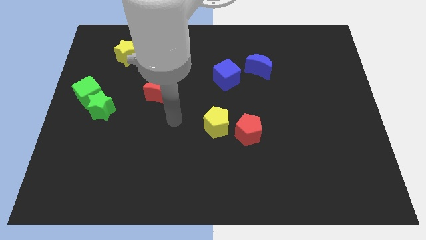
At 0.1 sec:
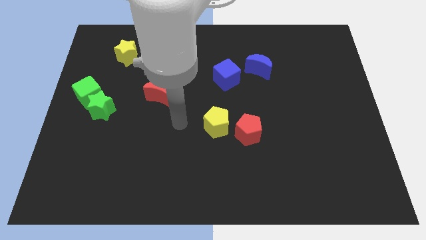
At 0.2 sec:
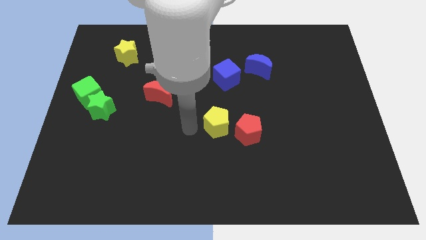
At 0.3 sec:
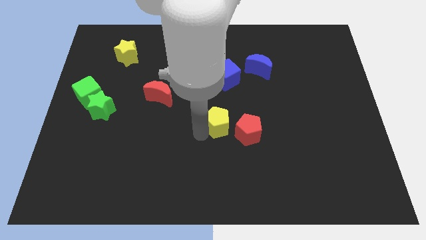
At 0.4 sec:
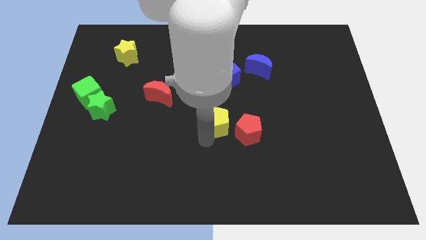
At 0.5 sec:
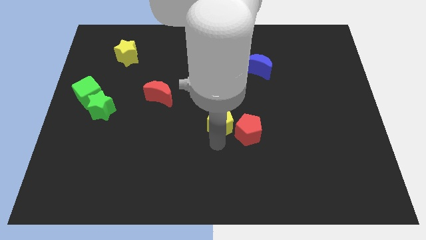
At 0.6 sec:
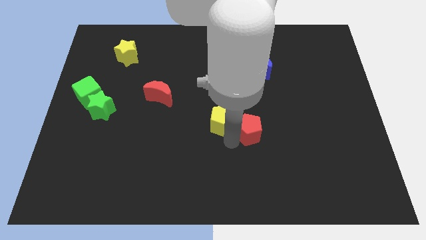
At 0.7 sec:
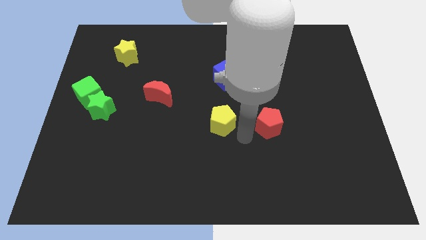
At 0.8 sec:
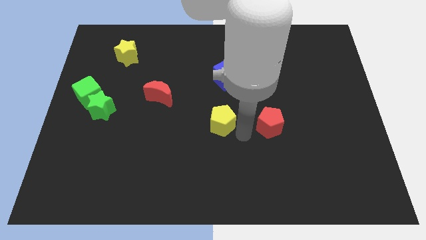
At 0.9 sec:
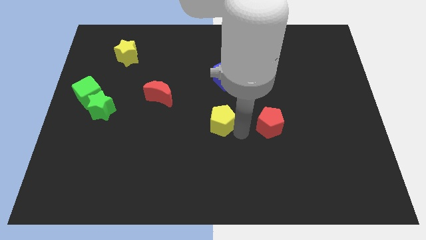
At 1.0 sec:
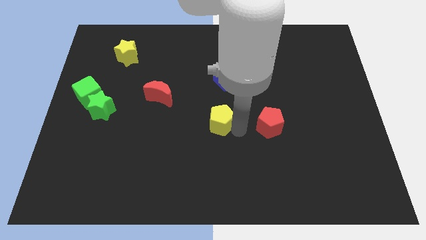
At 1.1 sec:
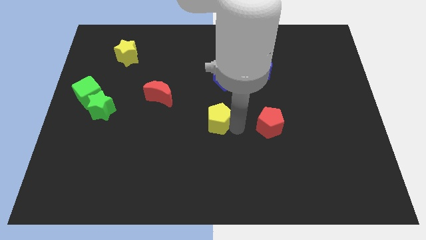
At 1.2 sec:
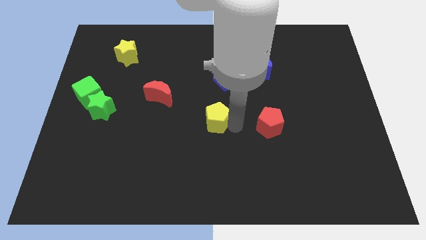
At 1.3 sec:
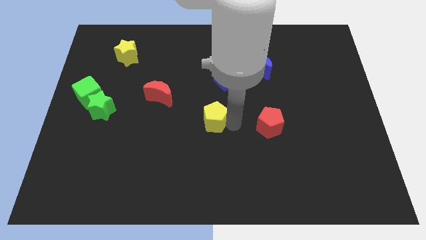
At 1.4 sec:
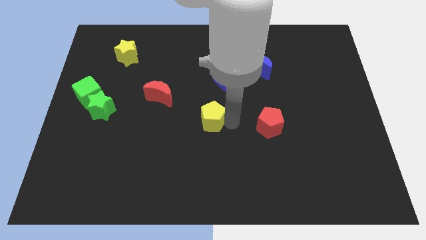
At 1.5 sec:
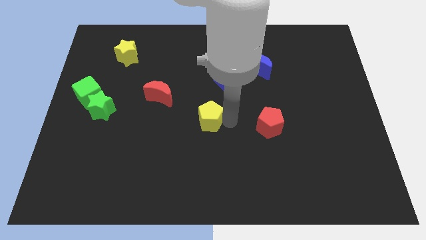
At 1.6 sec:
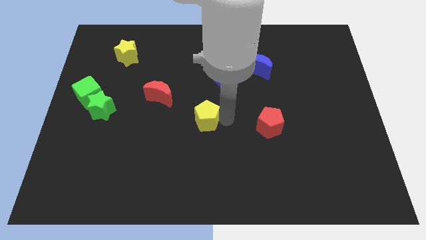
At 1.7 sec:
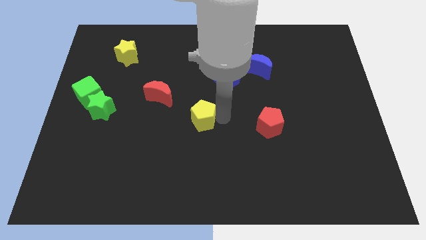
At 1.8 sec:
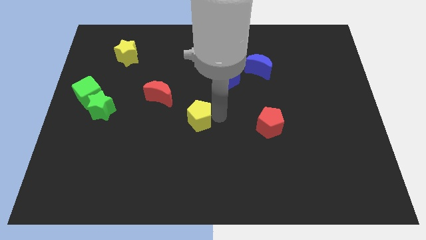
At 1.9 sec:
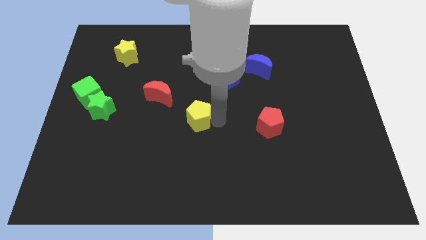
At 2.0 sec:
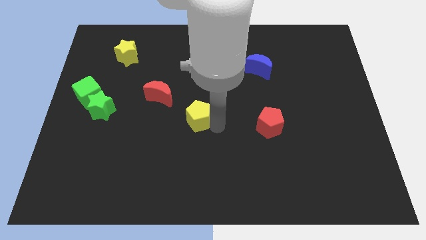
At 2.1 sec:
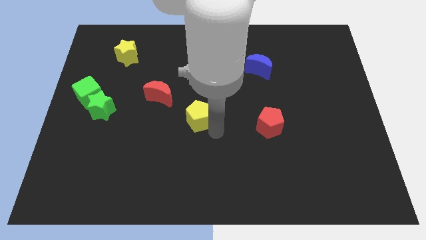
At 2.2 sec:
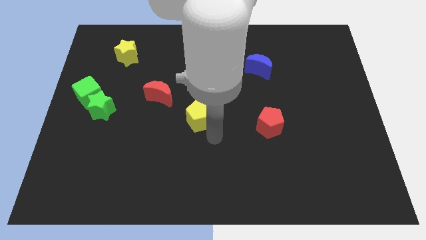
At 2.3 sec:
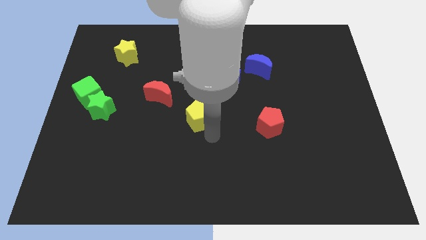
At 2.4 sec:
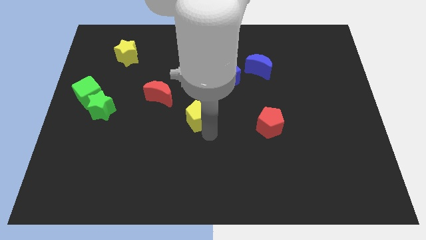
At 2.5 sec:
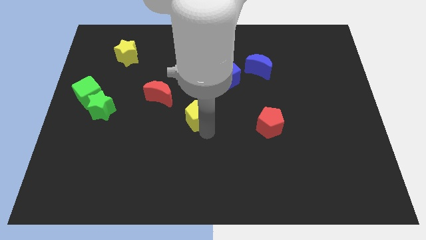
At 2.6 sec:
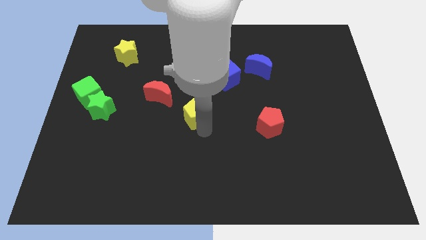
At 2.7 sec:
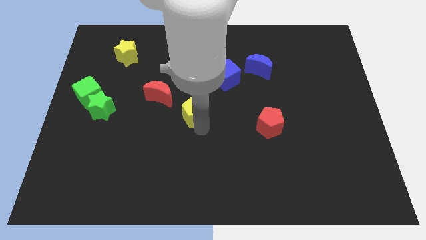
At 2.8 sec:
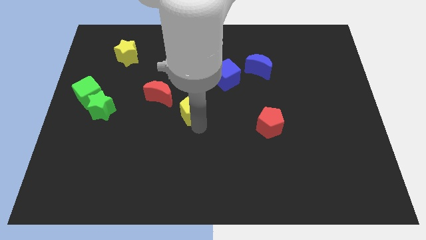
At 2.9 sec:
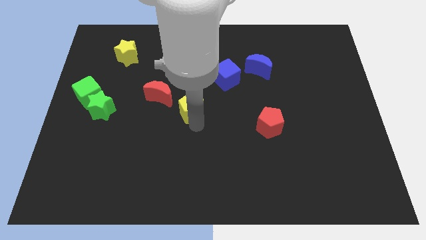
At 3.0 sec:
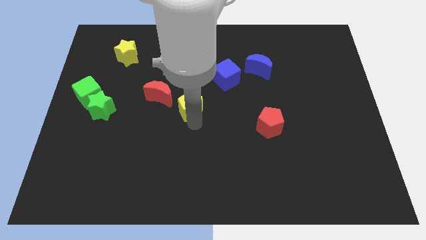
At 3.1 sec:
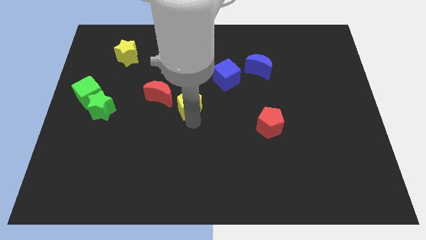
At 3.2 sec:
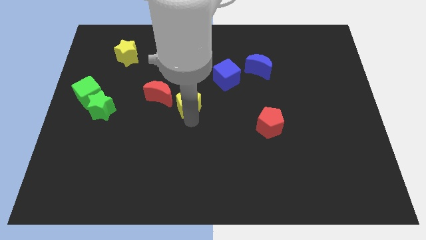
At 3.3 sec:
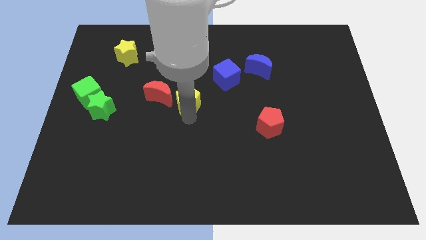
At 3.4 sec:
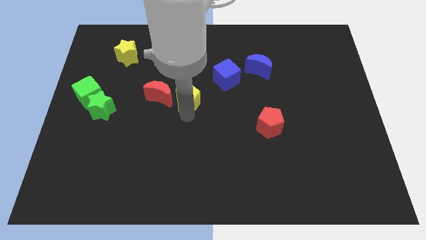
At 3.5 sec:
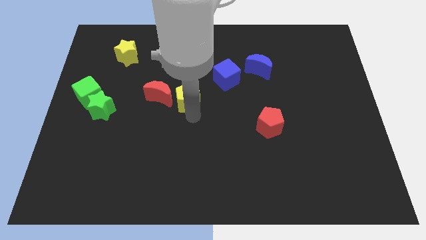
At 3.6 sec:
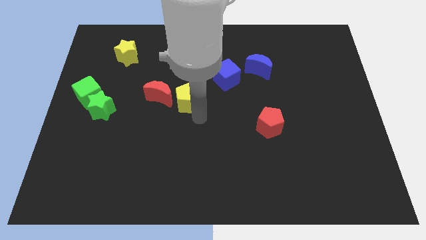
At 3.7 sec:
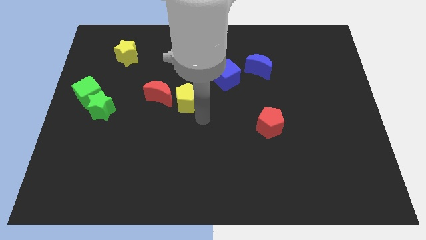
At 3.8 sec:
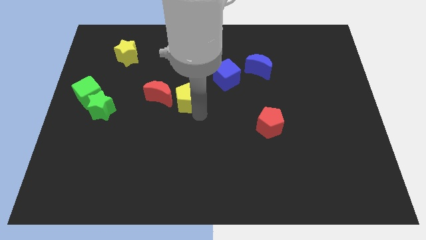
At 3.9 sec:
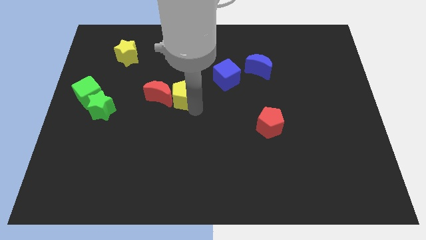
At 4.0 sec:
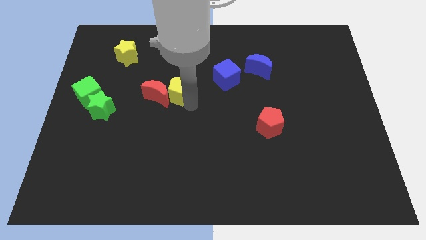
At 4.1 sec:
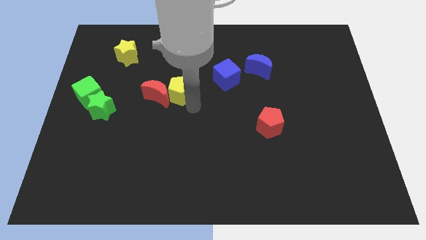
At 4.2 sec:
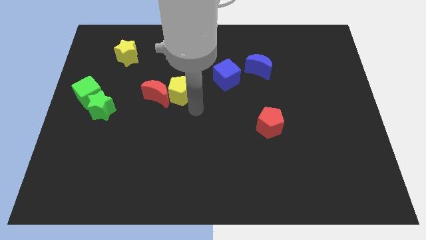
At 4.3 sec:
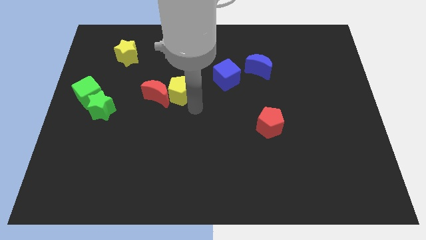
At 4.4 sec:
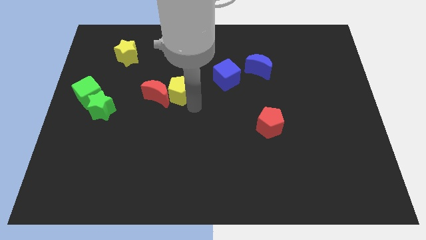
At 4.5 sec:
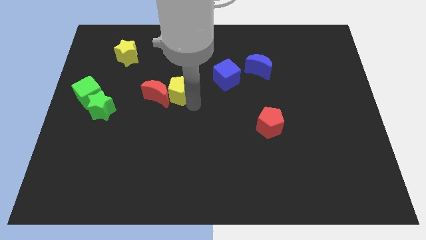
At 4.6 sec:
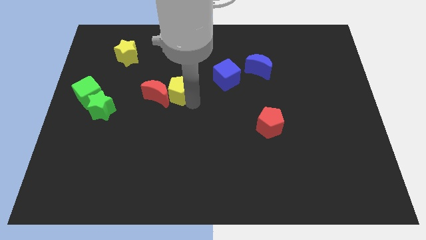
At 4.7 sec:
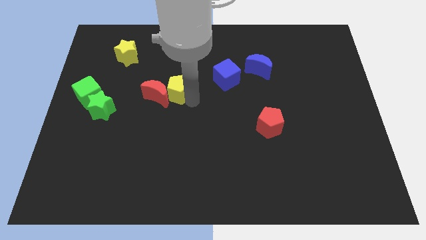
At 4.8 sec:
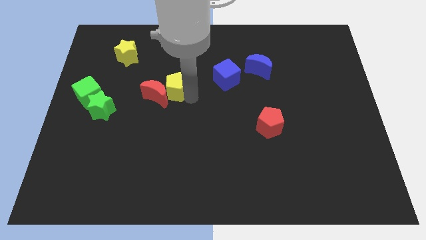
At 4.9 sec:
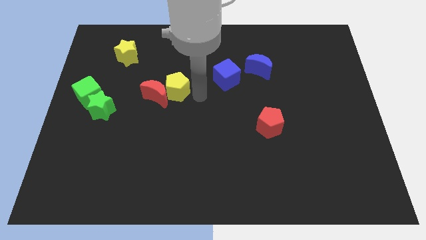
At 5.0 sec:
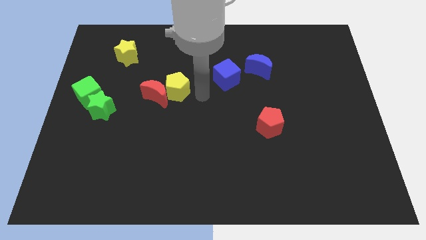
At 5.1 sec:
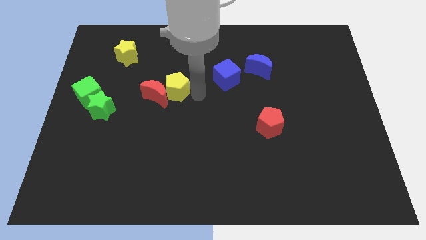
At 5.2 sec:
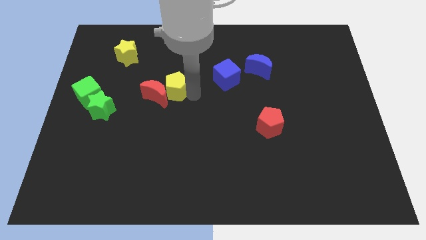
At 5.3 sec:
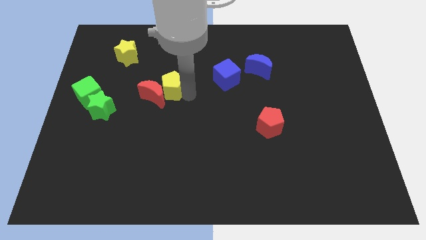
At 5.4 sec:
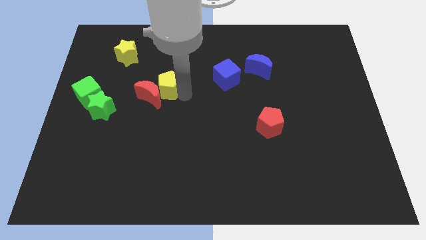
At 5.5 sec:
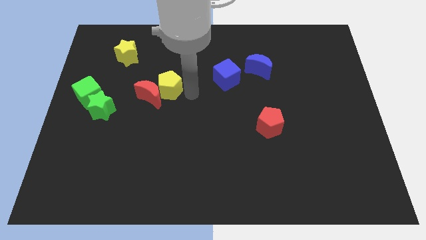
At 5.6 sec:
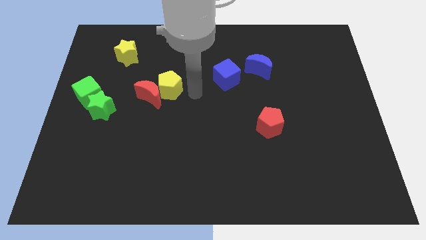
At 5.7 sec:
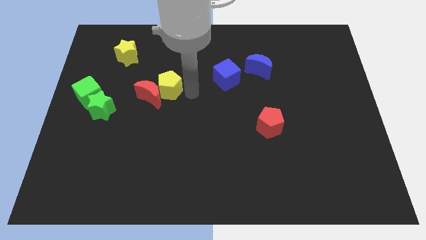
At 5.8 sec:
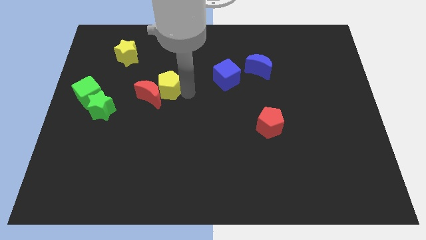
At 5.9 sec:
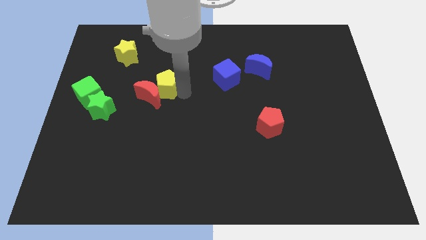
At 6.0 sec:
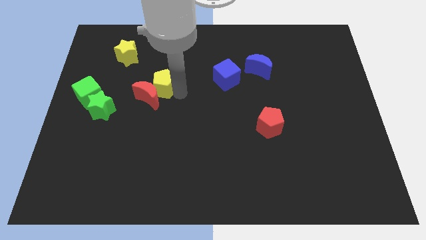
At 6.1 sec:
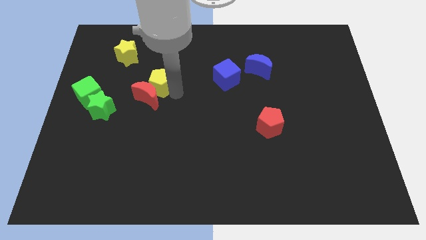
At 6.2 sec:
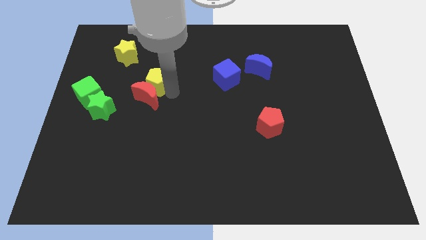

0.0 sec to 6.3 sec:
put the yellow pentagon diagonally up and to the left of the red moon

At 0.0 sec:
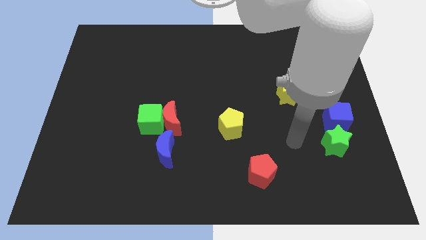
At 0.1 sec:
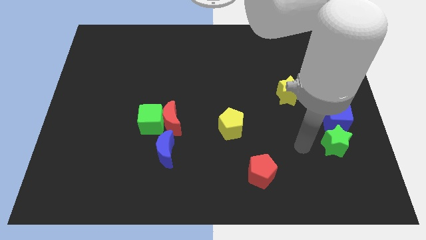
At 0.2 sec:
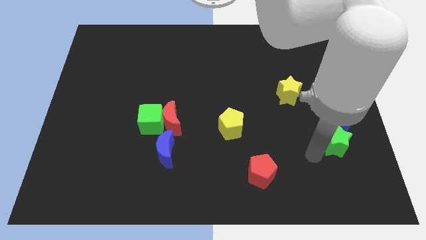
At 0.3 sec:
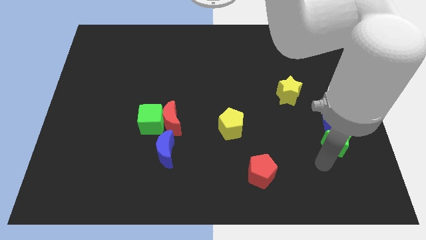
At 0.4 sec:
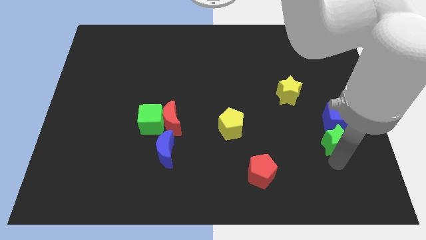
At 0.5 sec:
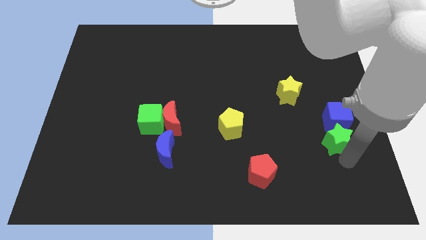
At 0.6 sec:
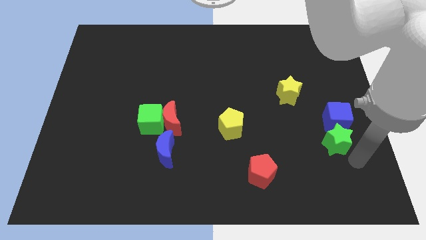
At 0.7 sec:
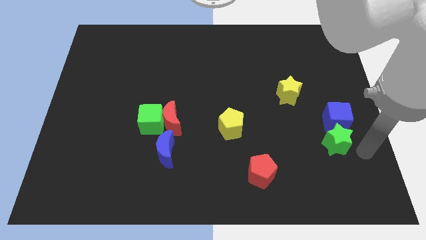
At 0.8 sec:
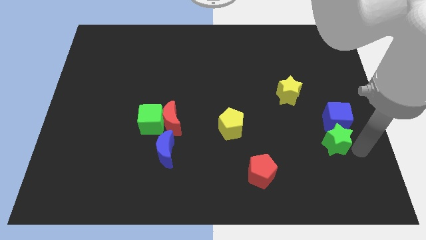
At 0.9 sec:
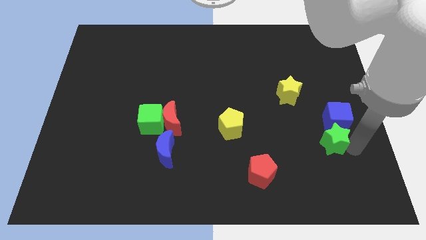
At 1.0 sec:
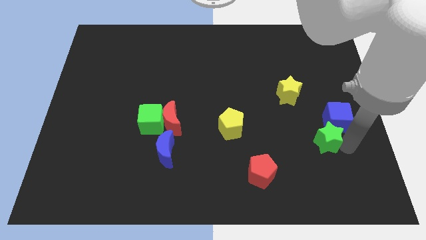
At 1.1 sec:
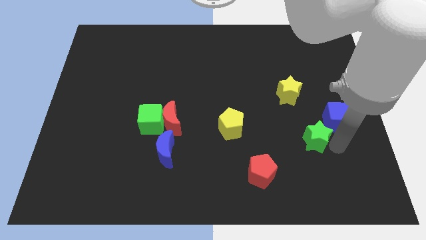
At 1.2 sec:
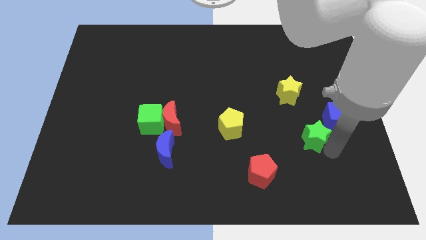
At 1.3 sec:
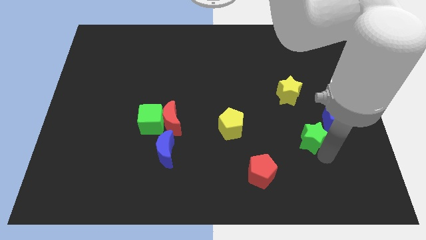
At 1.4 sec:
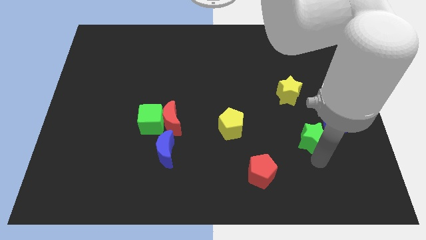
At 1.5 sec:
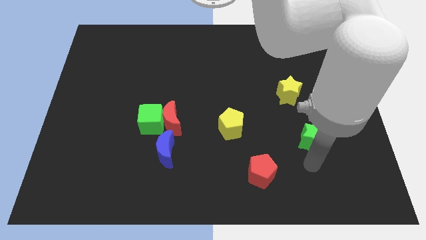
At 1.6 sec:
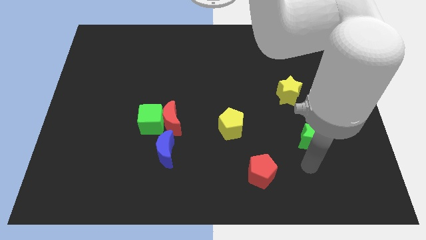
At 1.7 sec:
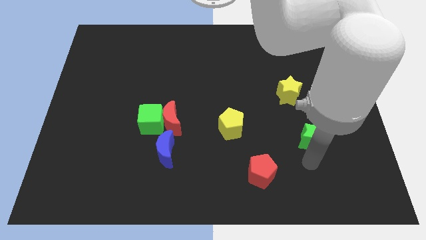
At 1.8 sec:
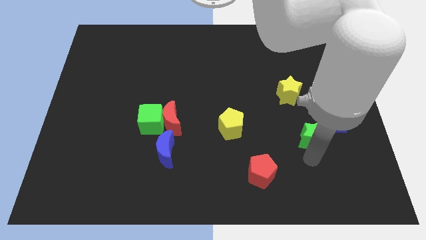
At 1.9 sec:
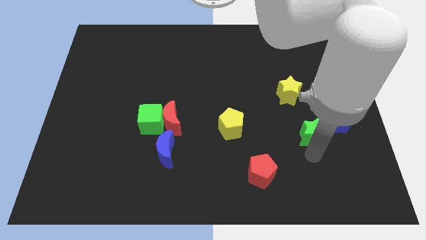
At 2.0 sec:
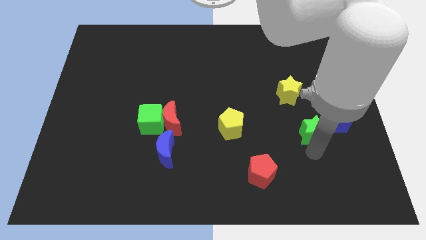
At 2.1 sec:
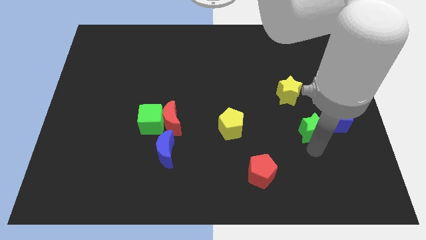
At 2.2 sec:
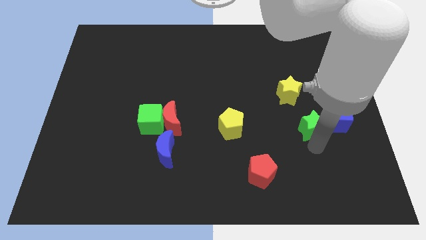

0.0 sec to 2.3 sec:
move the green star to the bottom right side of the yellow star
